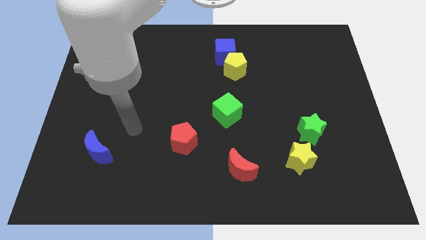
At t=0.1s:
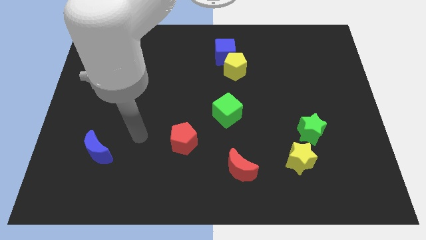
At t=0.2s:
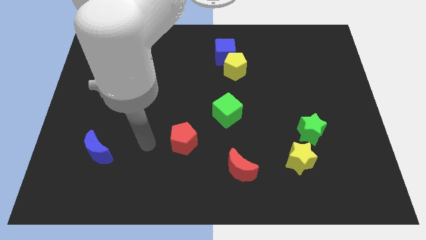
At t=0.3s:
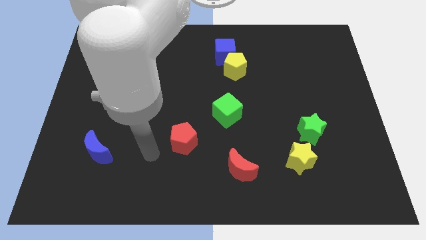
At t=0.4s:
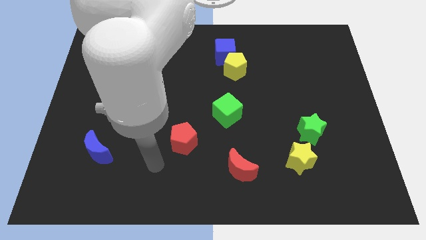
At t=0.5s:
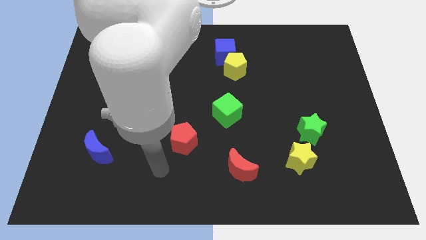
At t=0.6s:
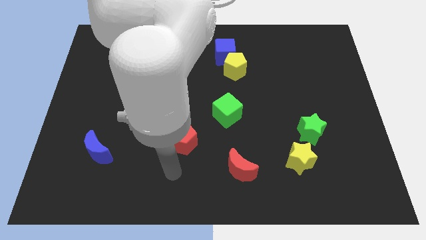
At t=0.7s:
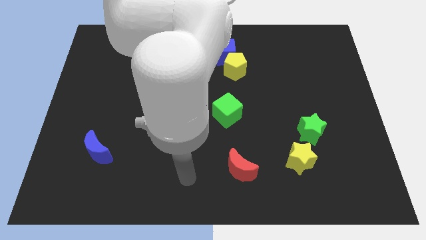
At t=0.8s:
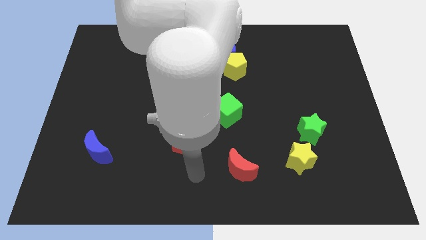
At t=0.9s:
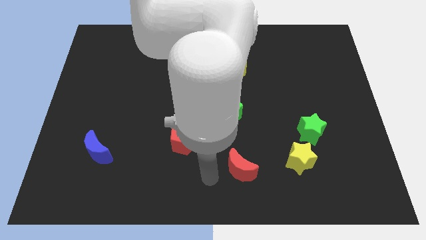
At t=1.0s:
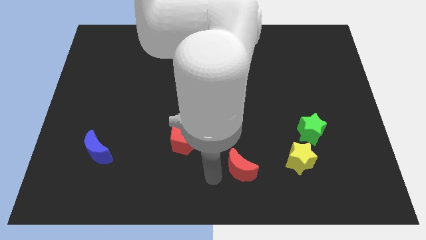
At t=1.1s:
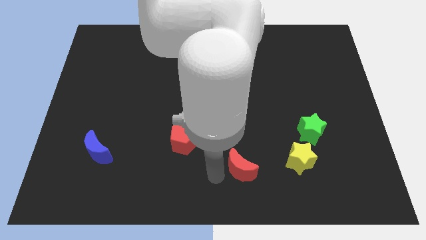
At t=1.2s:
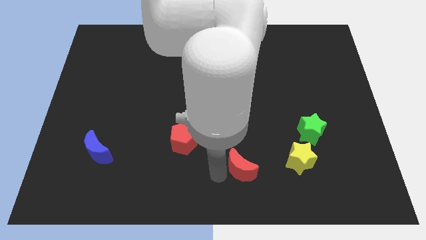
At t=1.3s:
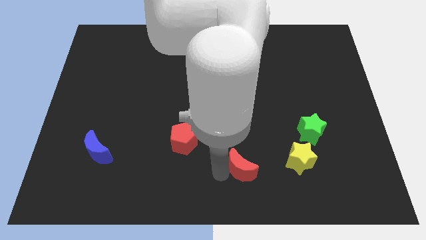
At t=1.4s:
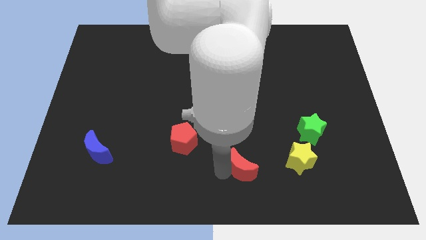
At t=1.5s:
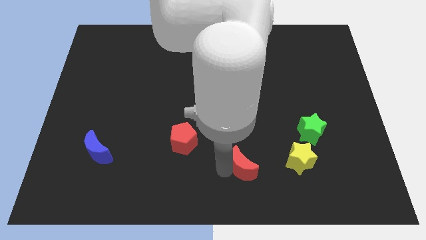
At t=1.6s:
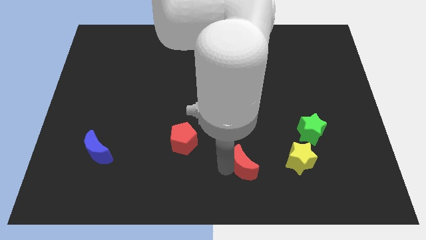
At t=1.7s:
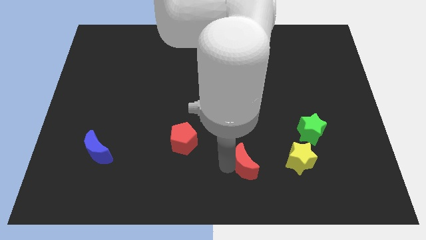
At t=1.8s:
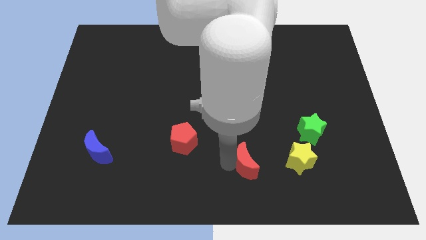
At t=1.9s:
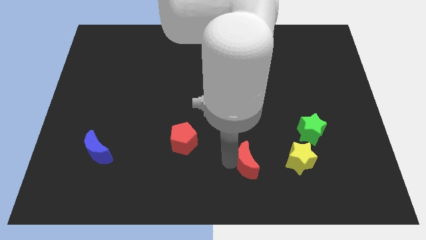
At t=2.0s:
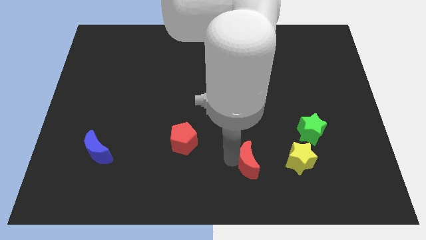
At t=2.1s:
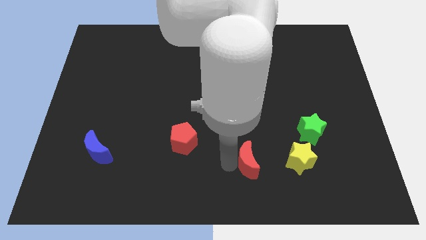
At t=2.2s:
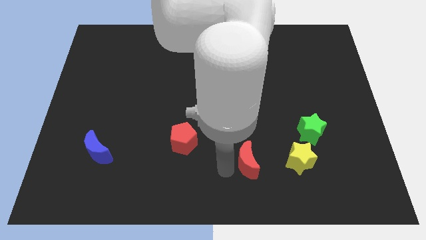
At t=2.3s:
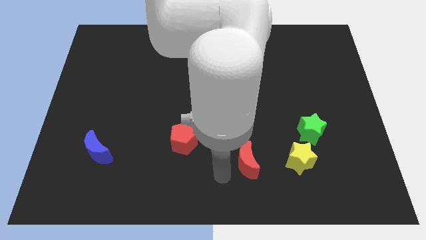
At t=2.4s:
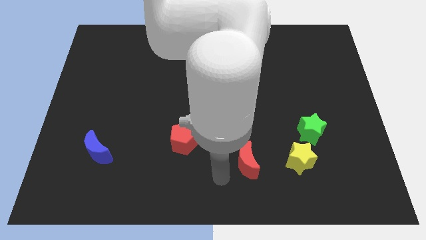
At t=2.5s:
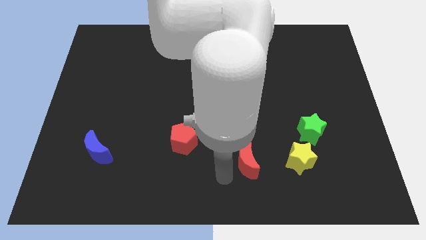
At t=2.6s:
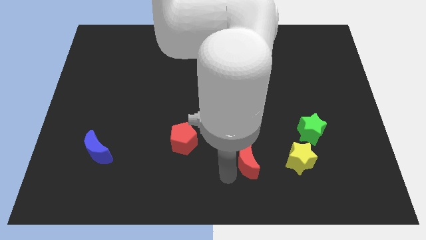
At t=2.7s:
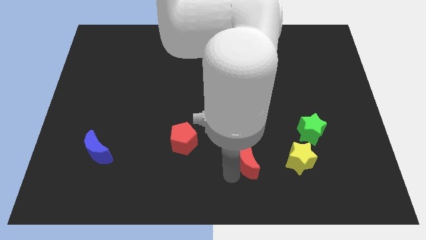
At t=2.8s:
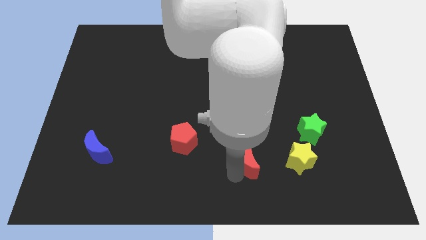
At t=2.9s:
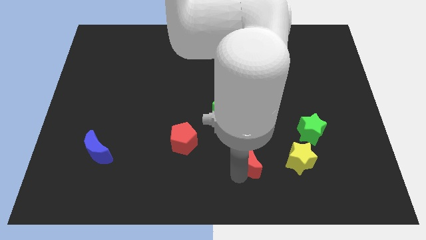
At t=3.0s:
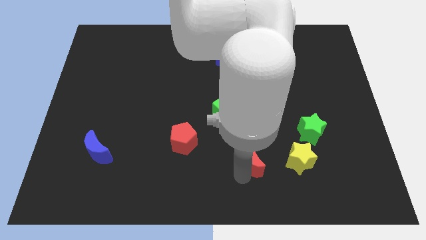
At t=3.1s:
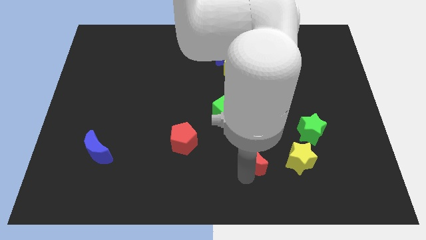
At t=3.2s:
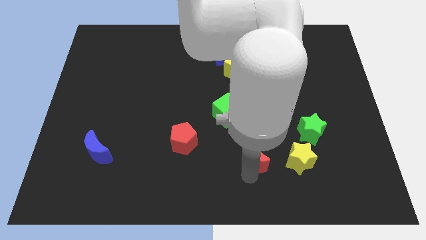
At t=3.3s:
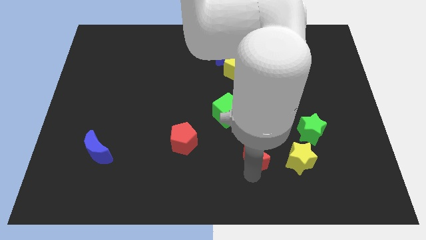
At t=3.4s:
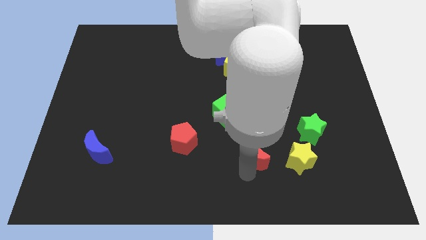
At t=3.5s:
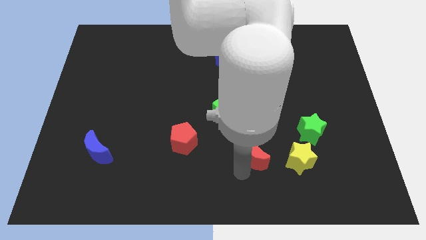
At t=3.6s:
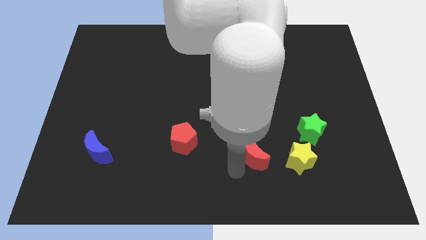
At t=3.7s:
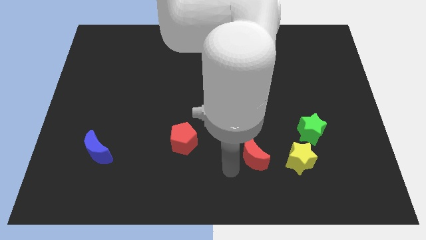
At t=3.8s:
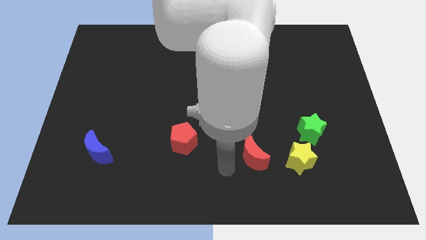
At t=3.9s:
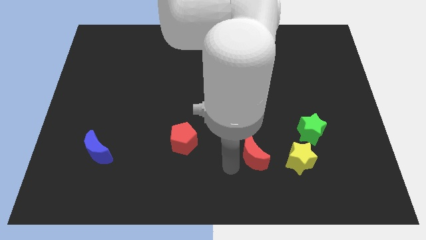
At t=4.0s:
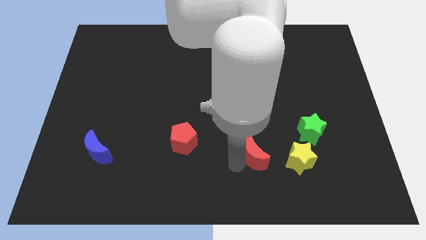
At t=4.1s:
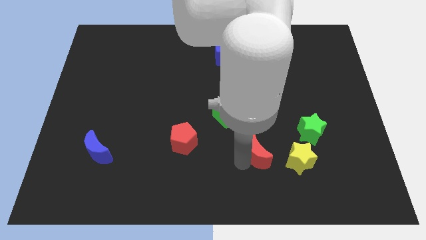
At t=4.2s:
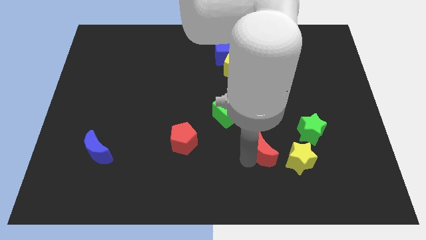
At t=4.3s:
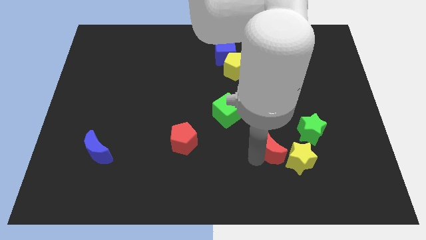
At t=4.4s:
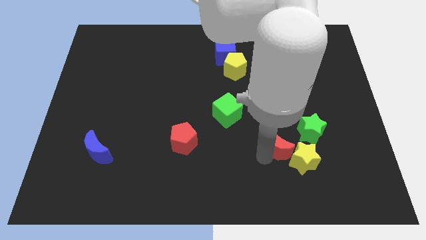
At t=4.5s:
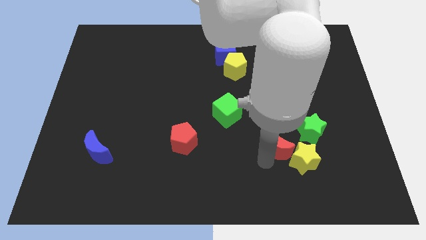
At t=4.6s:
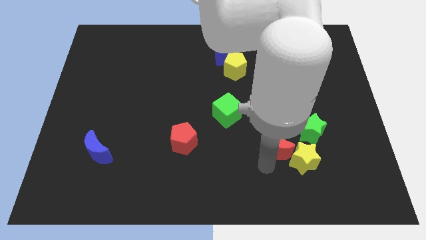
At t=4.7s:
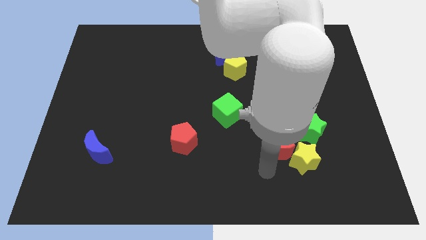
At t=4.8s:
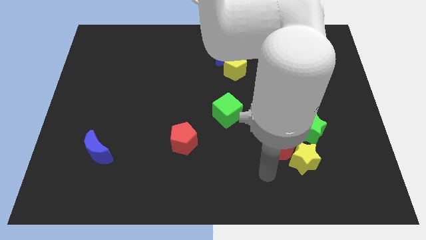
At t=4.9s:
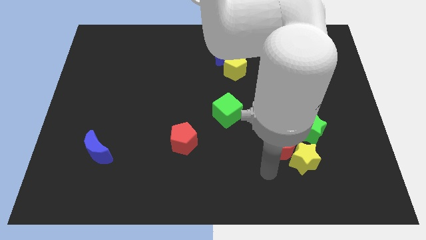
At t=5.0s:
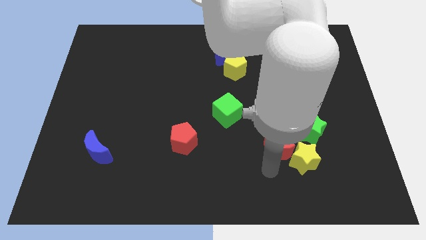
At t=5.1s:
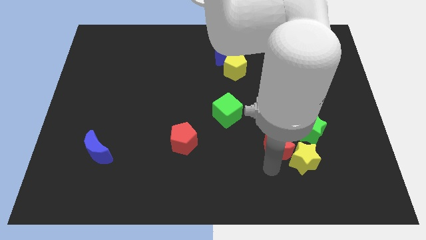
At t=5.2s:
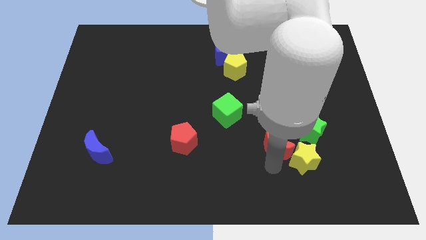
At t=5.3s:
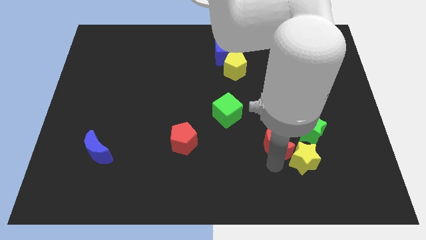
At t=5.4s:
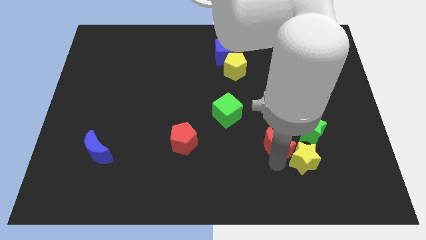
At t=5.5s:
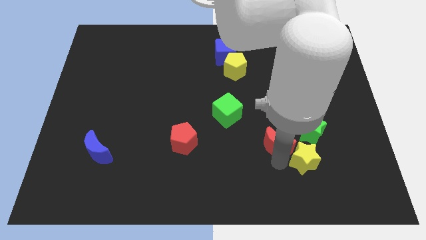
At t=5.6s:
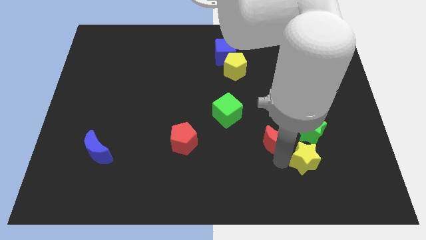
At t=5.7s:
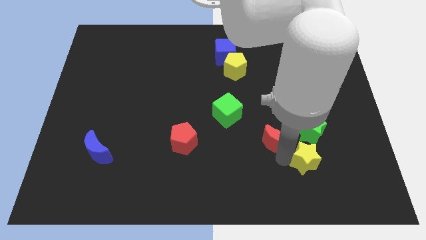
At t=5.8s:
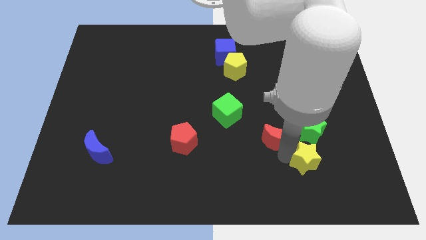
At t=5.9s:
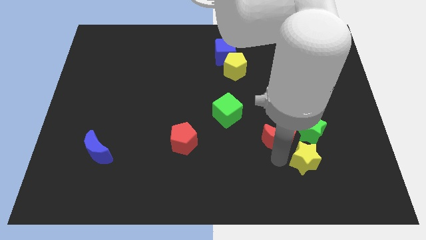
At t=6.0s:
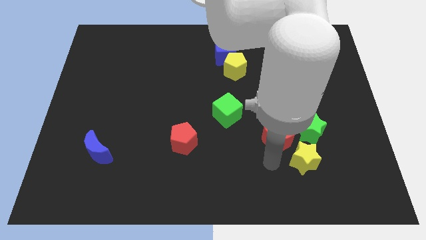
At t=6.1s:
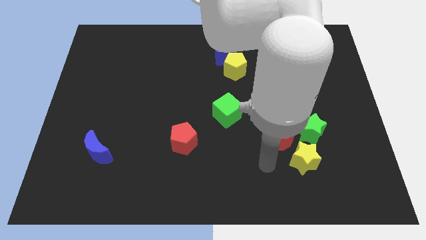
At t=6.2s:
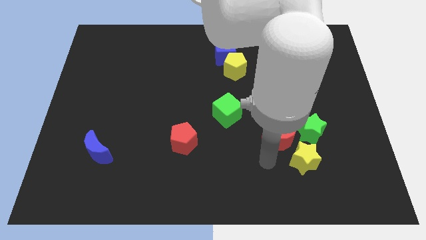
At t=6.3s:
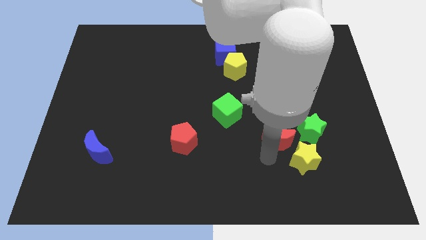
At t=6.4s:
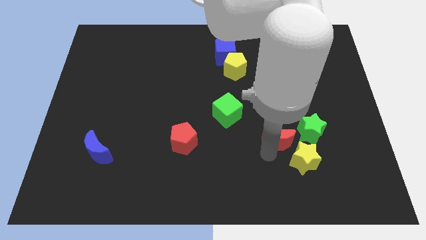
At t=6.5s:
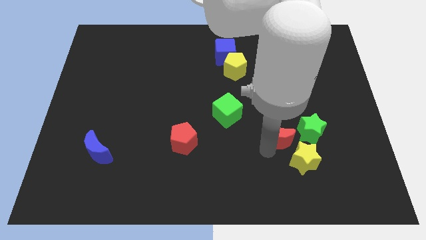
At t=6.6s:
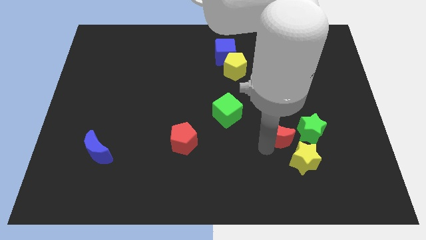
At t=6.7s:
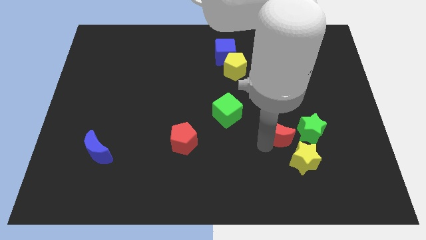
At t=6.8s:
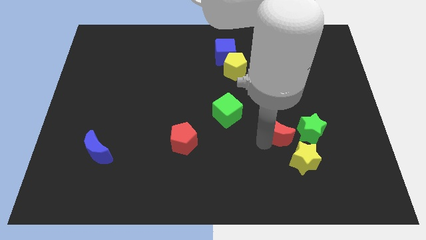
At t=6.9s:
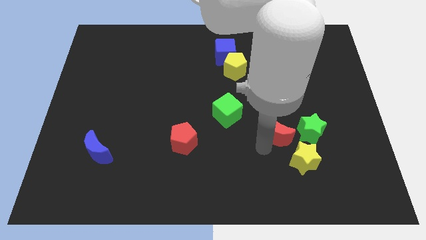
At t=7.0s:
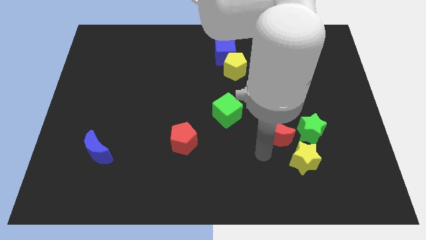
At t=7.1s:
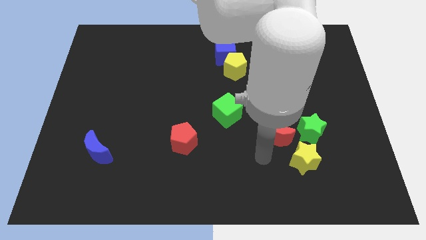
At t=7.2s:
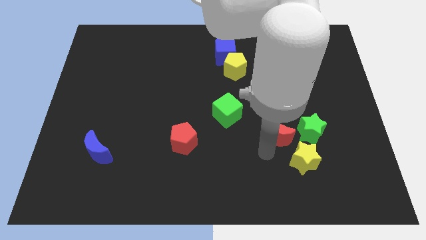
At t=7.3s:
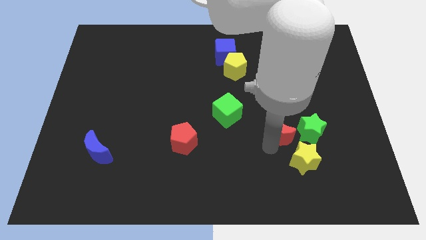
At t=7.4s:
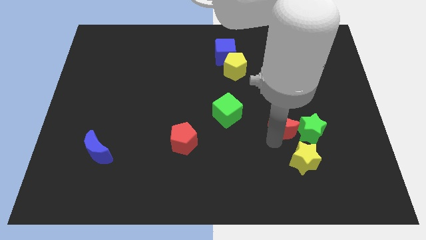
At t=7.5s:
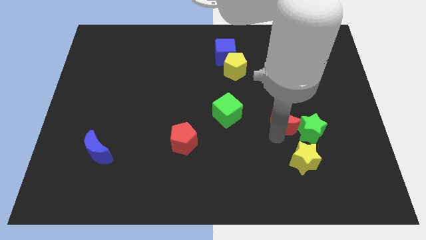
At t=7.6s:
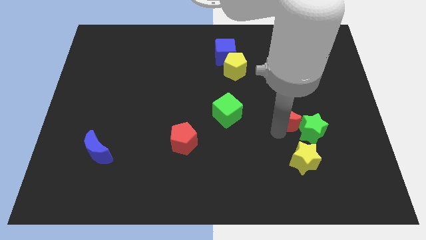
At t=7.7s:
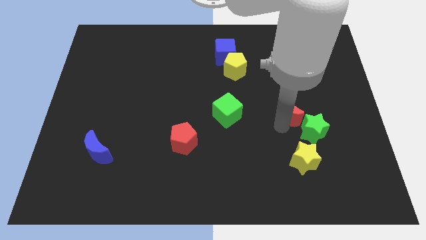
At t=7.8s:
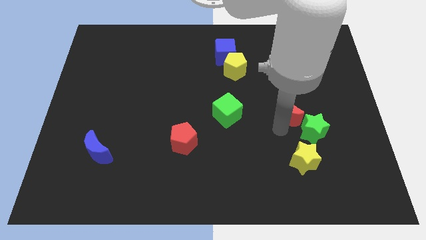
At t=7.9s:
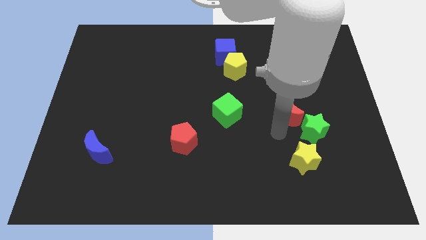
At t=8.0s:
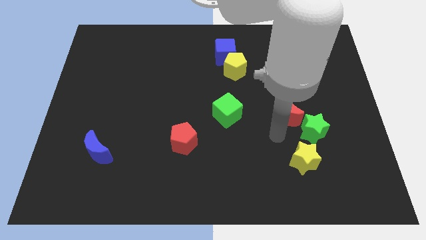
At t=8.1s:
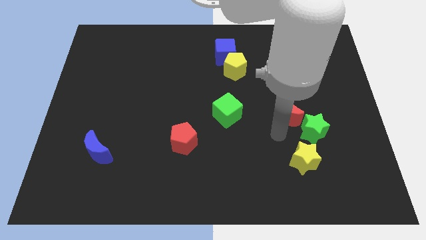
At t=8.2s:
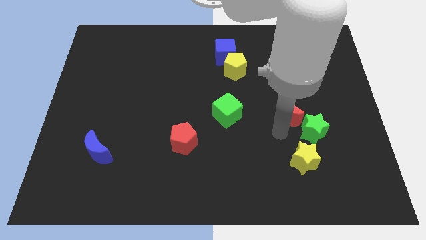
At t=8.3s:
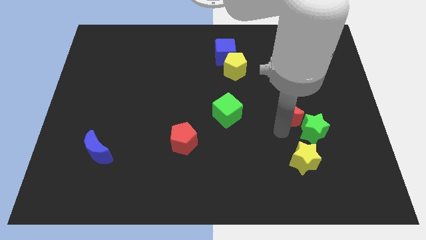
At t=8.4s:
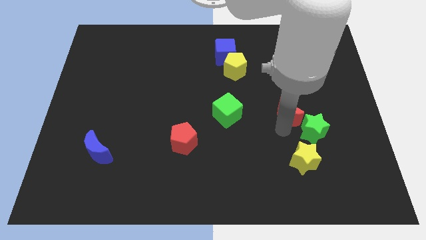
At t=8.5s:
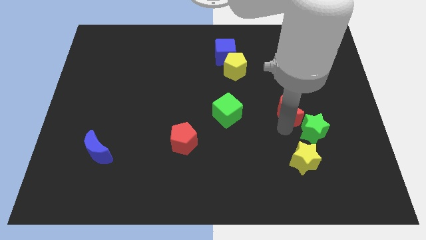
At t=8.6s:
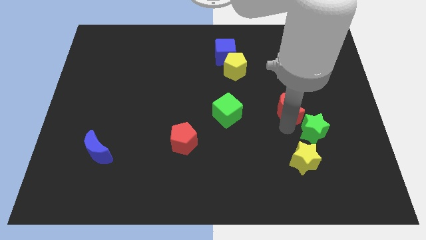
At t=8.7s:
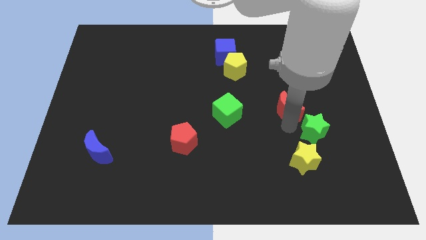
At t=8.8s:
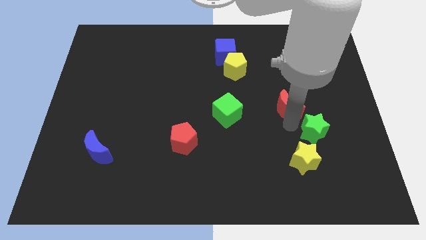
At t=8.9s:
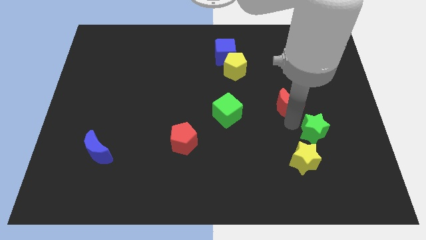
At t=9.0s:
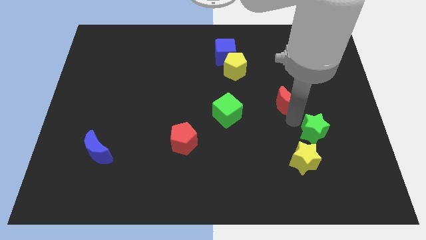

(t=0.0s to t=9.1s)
move the red moon diagonally upwards and right
